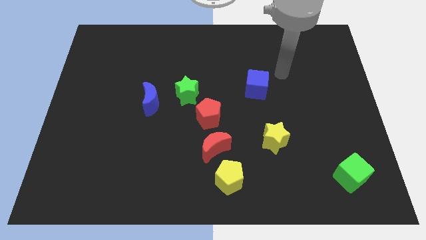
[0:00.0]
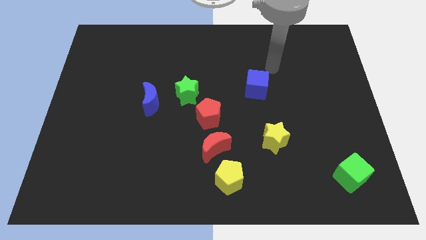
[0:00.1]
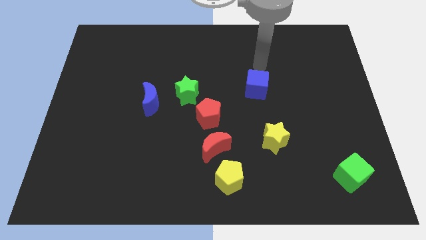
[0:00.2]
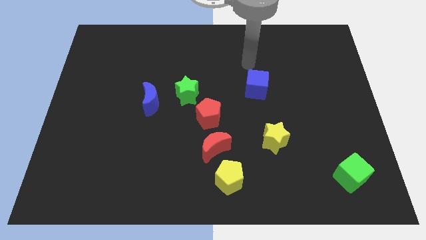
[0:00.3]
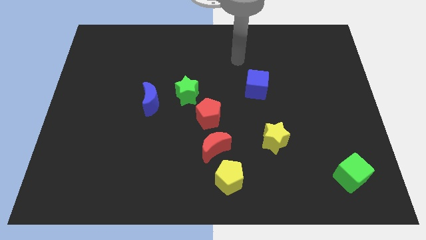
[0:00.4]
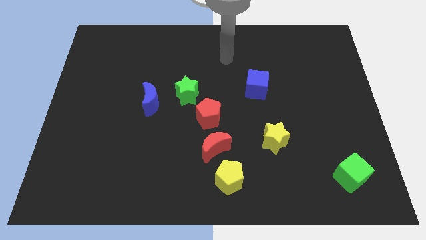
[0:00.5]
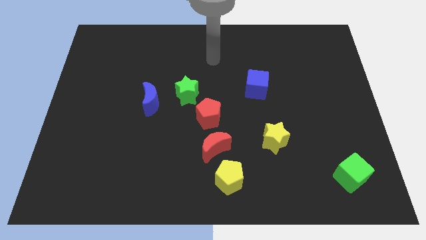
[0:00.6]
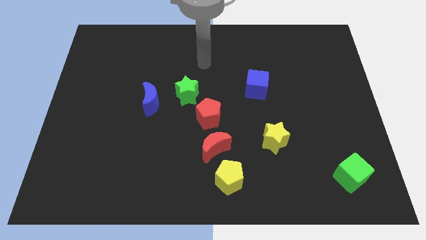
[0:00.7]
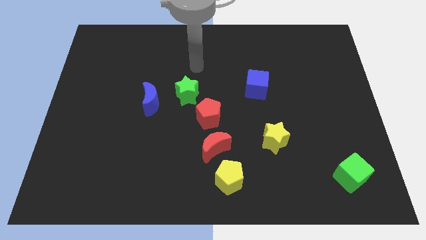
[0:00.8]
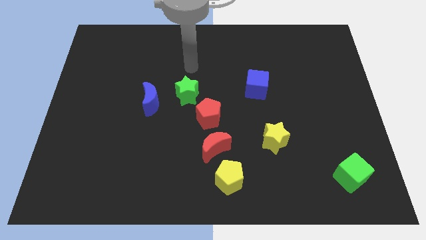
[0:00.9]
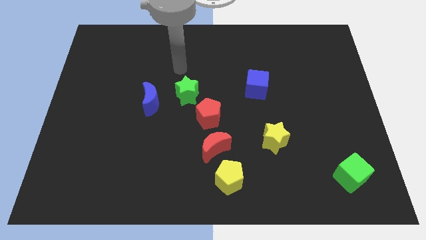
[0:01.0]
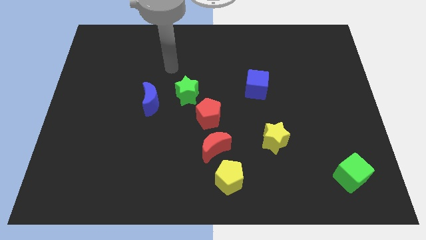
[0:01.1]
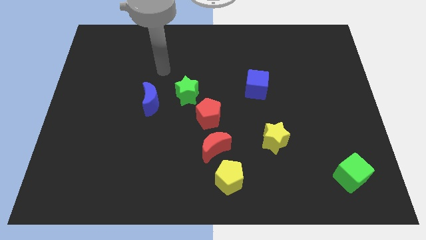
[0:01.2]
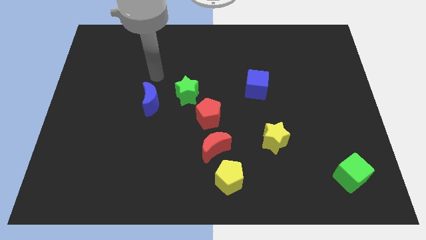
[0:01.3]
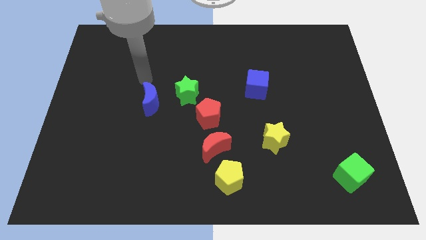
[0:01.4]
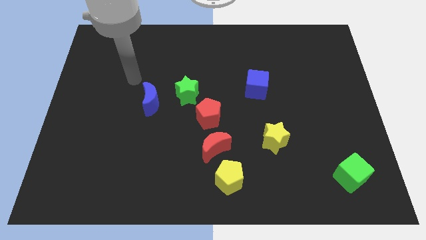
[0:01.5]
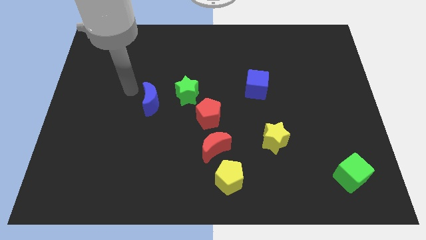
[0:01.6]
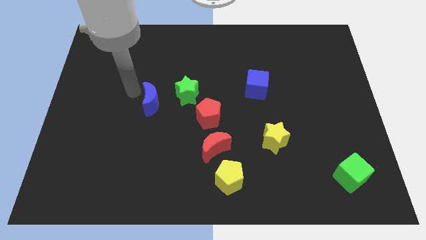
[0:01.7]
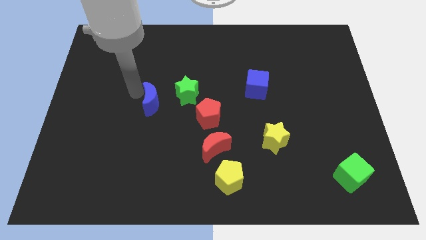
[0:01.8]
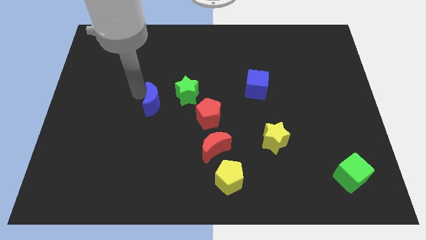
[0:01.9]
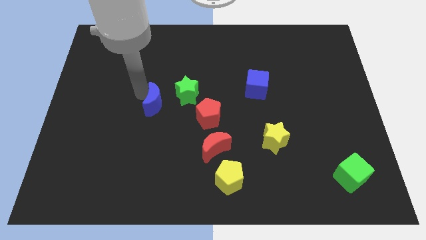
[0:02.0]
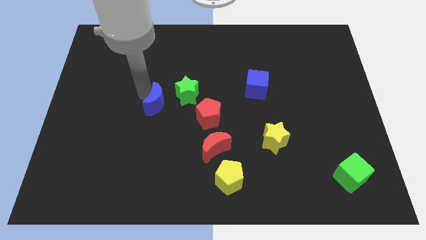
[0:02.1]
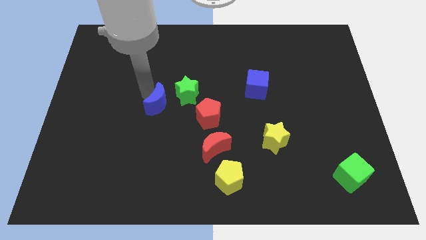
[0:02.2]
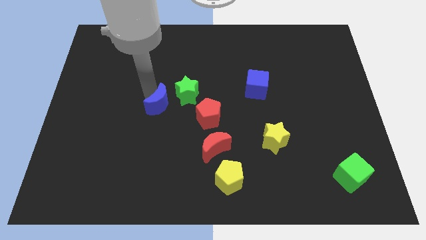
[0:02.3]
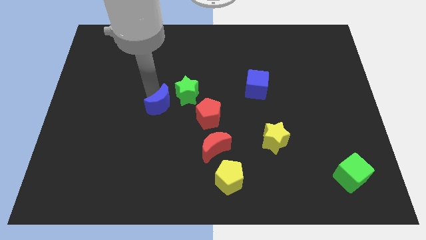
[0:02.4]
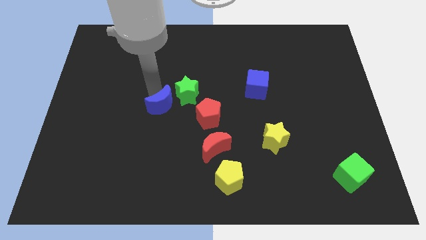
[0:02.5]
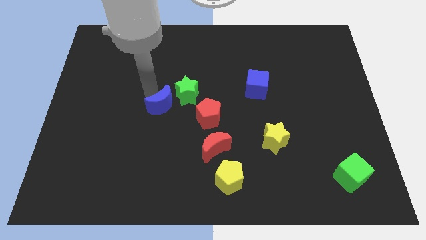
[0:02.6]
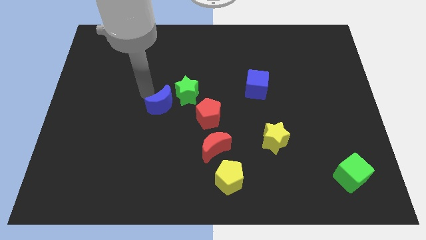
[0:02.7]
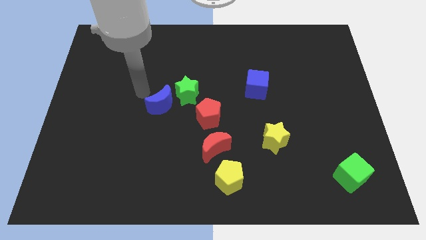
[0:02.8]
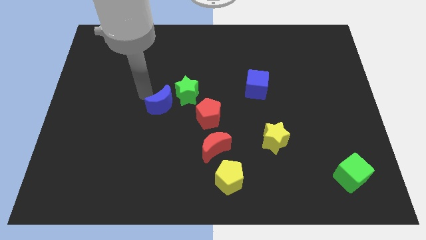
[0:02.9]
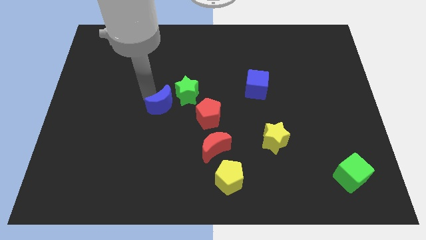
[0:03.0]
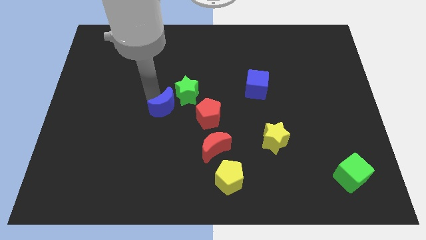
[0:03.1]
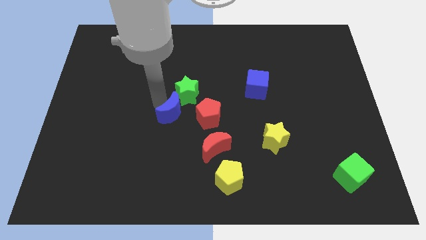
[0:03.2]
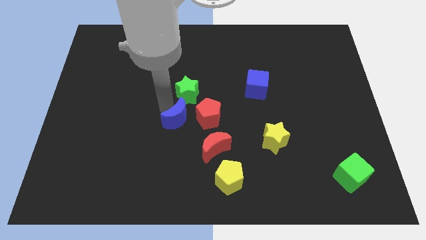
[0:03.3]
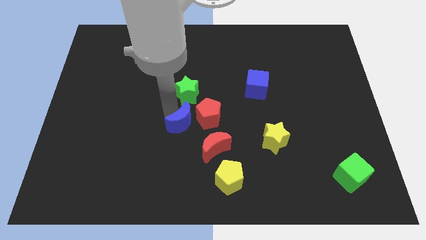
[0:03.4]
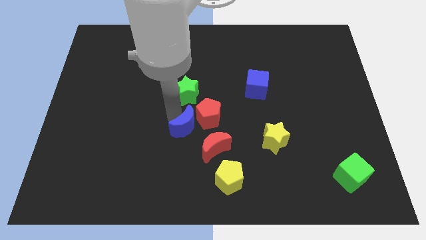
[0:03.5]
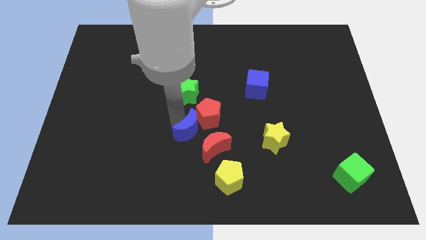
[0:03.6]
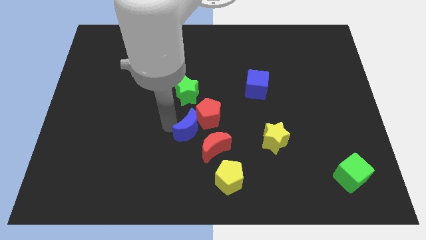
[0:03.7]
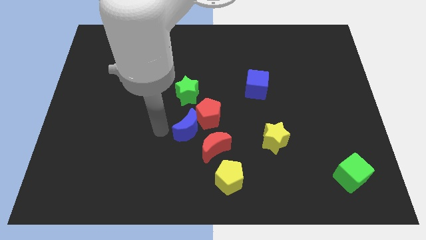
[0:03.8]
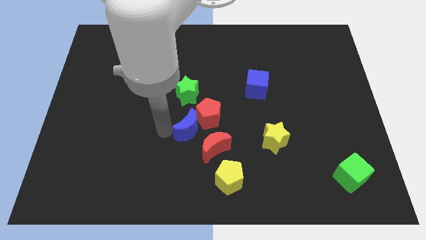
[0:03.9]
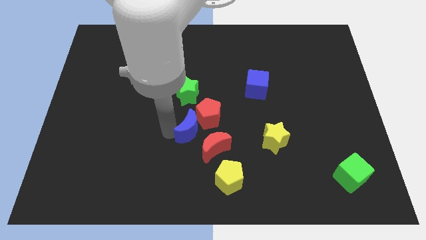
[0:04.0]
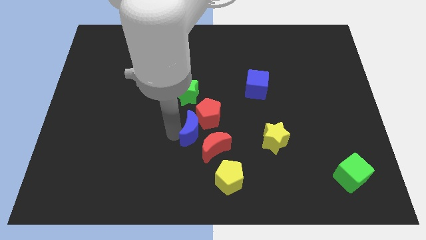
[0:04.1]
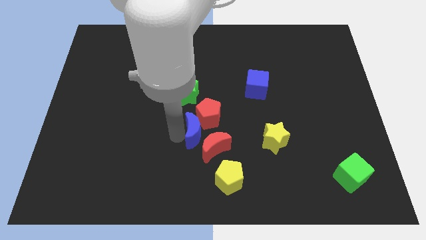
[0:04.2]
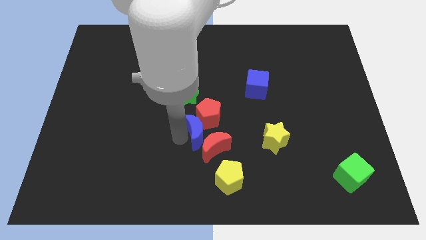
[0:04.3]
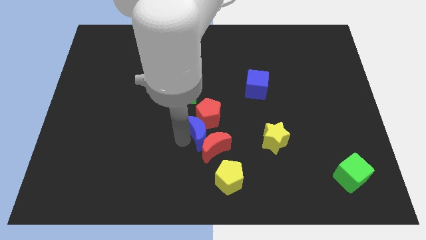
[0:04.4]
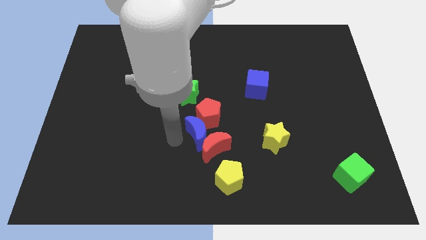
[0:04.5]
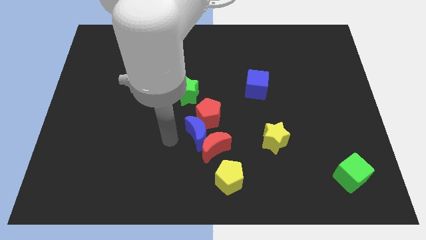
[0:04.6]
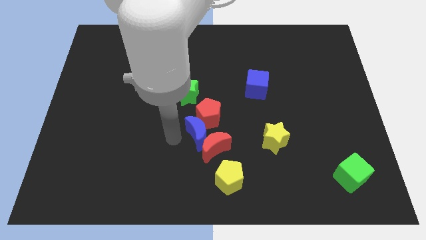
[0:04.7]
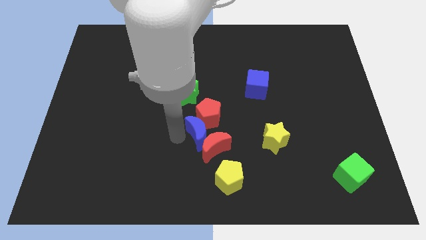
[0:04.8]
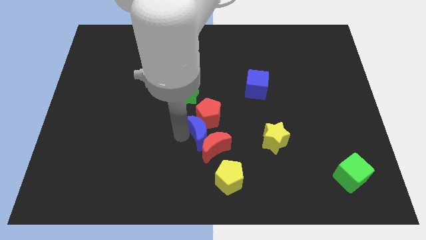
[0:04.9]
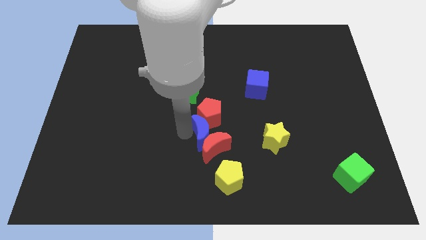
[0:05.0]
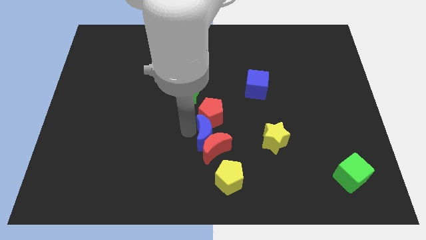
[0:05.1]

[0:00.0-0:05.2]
push the blue moon to the top right of the red moon

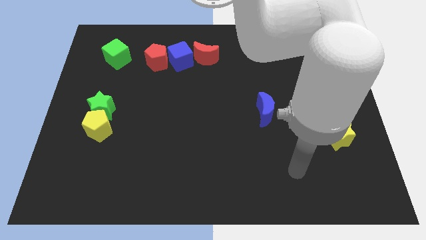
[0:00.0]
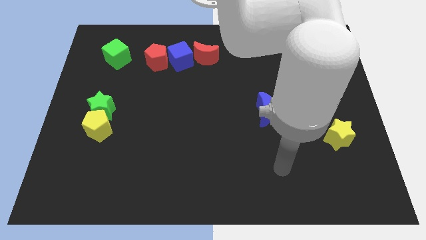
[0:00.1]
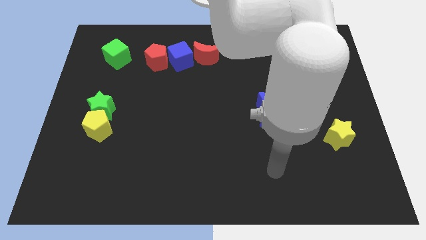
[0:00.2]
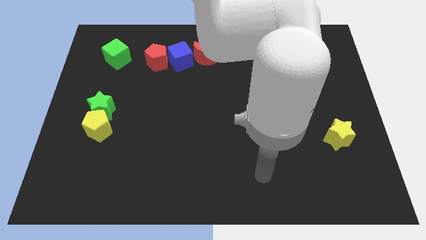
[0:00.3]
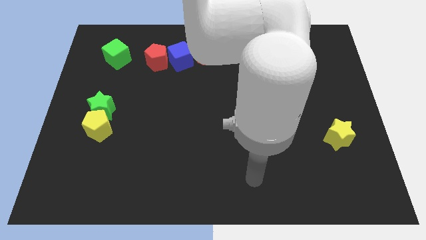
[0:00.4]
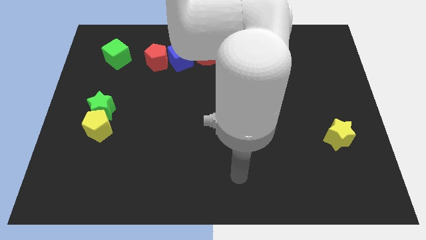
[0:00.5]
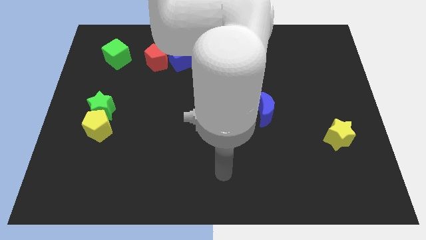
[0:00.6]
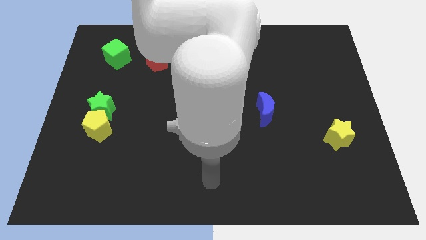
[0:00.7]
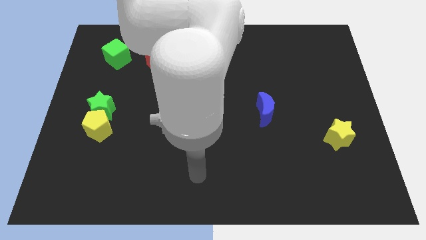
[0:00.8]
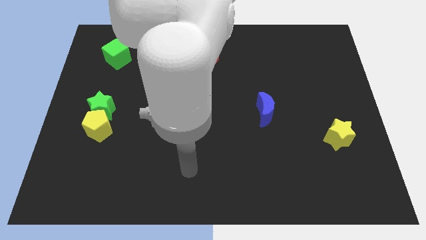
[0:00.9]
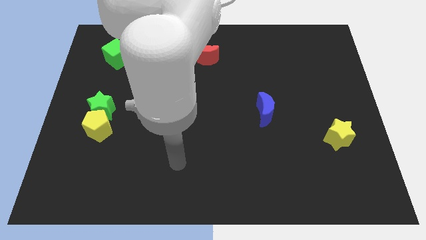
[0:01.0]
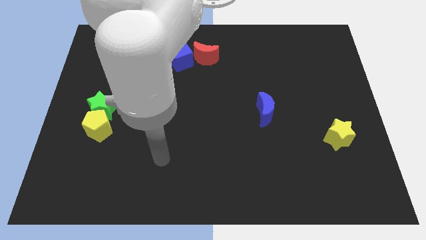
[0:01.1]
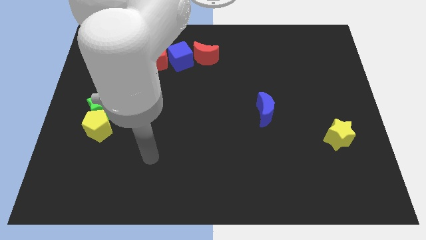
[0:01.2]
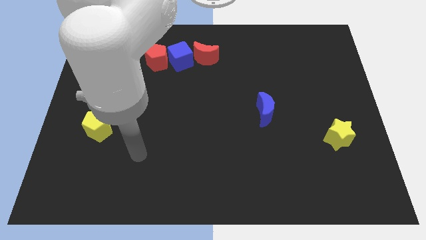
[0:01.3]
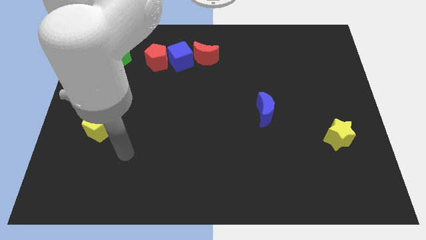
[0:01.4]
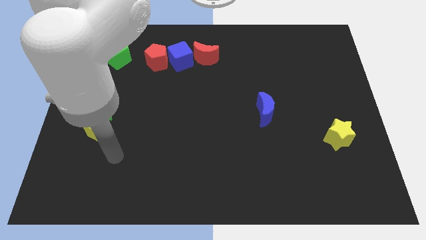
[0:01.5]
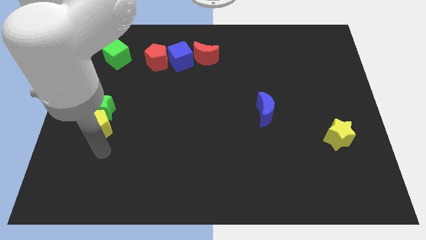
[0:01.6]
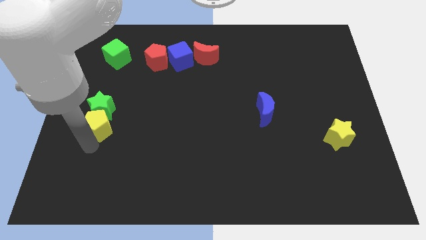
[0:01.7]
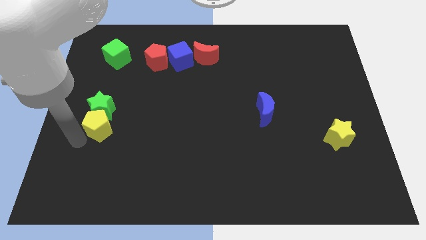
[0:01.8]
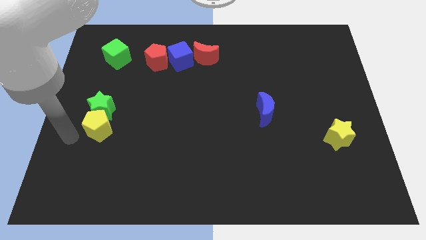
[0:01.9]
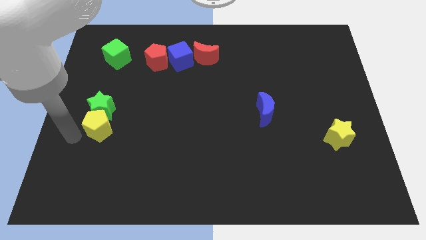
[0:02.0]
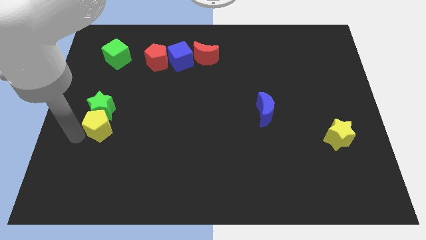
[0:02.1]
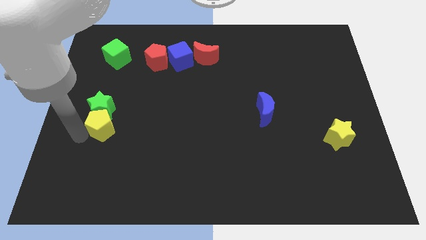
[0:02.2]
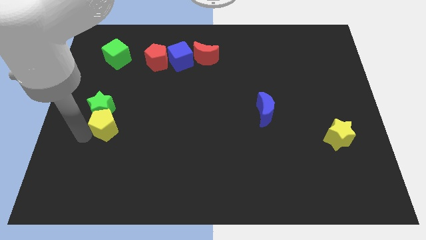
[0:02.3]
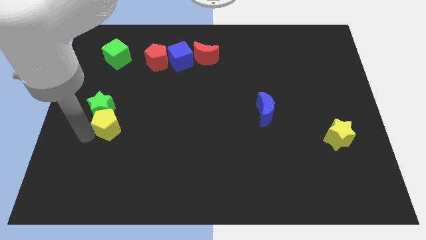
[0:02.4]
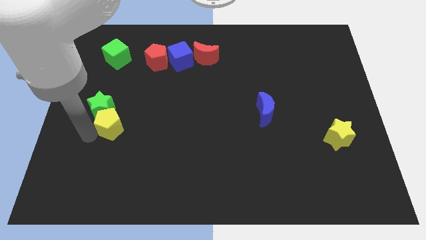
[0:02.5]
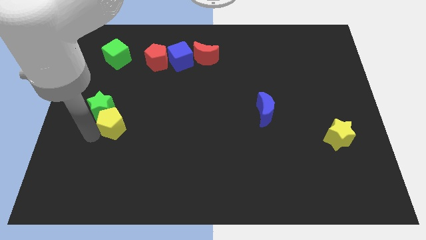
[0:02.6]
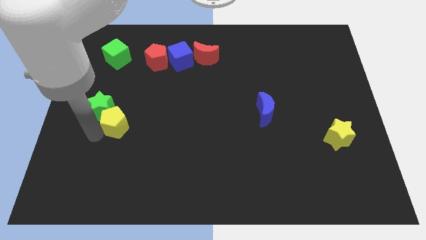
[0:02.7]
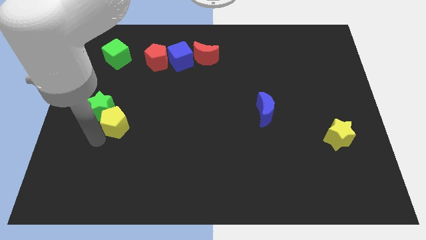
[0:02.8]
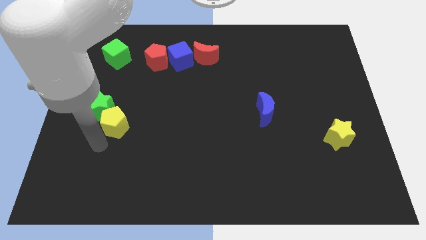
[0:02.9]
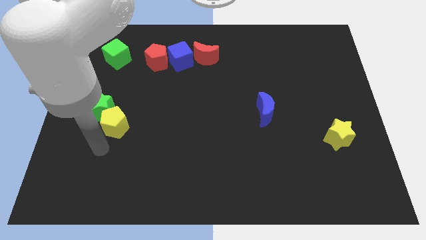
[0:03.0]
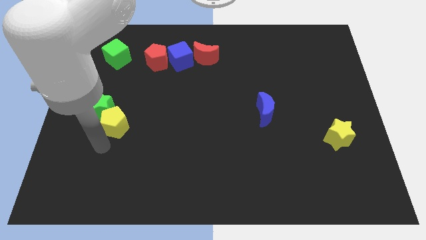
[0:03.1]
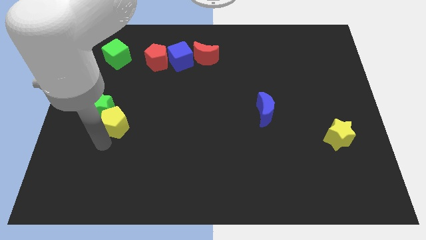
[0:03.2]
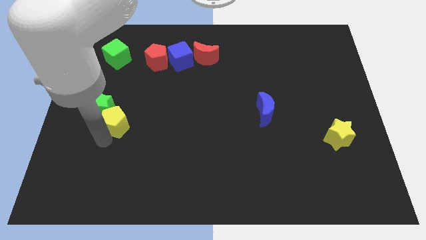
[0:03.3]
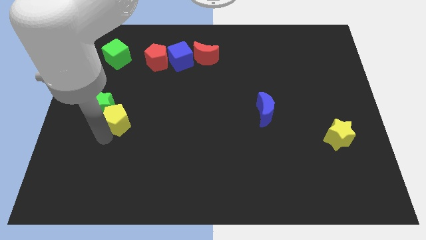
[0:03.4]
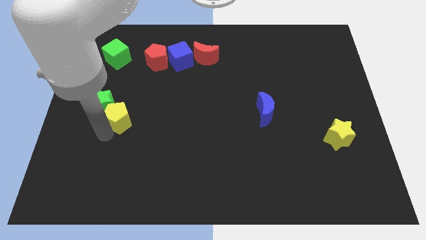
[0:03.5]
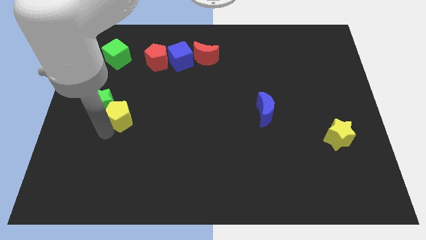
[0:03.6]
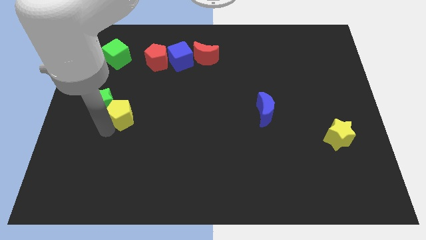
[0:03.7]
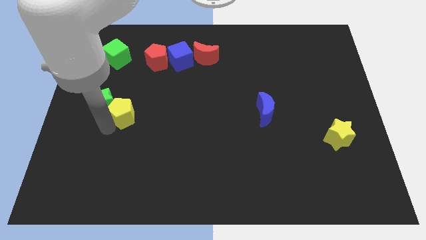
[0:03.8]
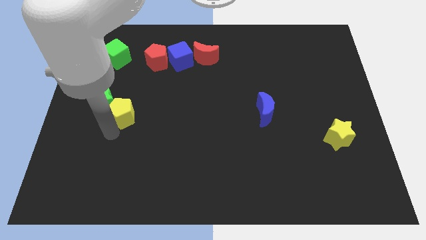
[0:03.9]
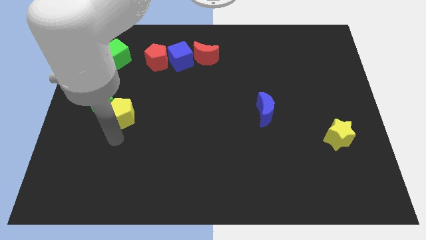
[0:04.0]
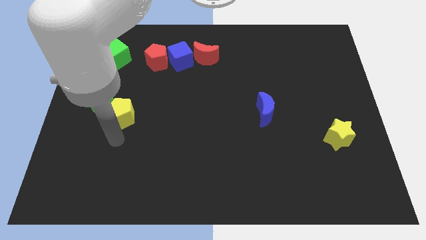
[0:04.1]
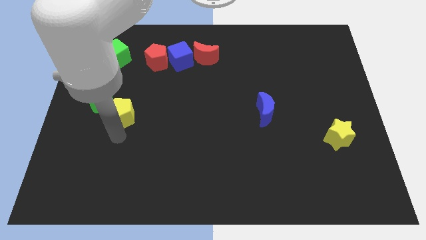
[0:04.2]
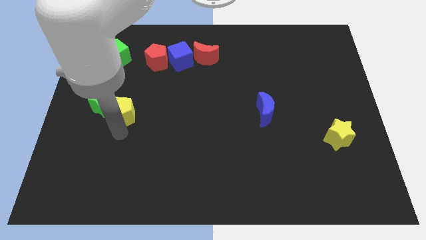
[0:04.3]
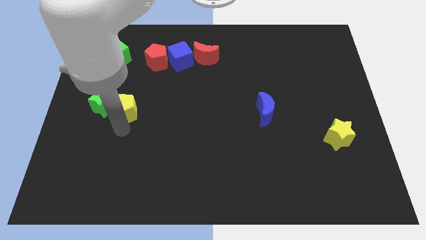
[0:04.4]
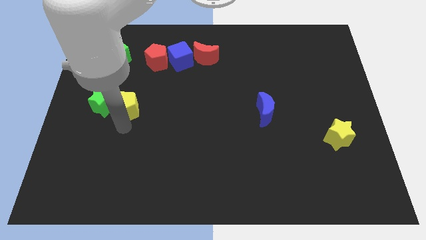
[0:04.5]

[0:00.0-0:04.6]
slide the yellow pentagon to the top right of the green star
